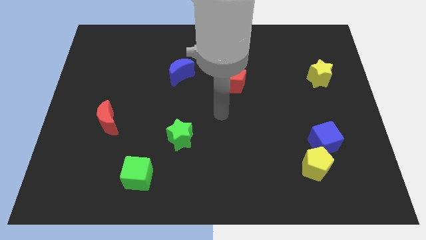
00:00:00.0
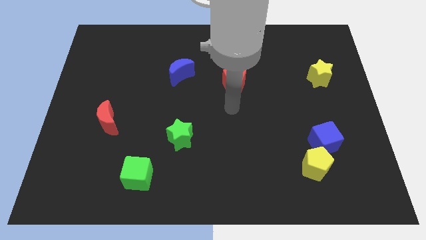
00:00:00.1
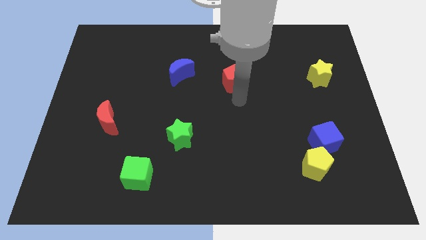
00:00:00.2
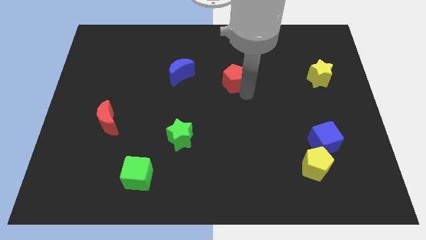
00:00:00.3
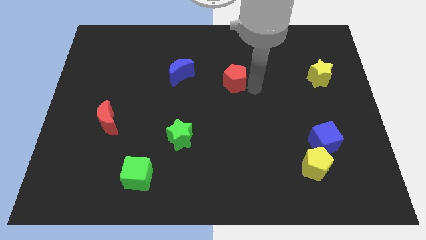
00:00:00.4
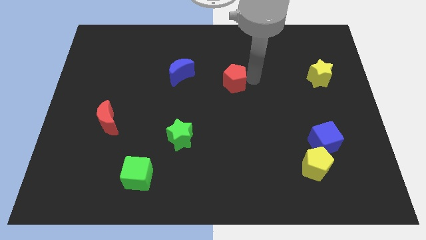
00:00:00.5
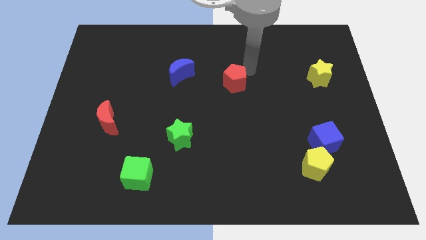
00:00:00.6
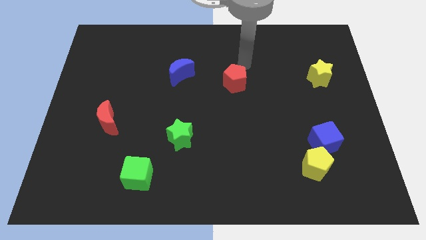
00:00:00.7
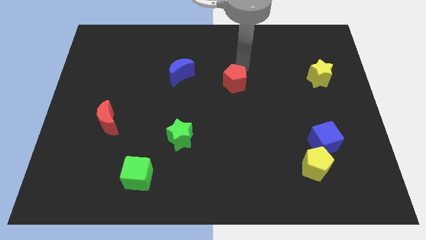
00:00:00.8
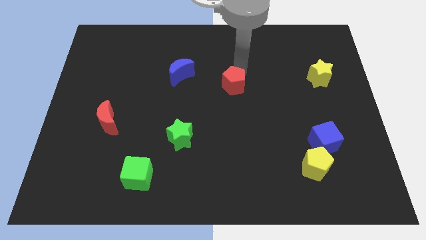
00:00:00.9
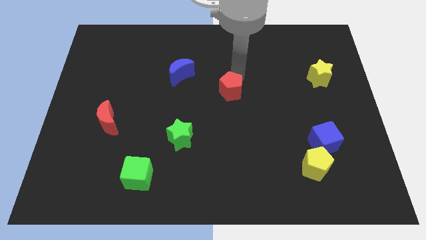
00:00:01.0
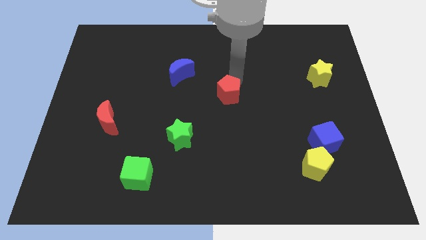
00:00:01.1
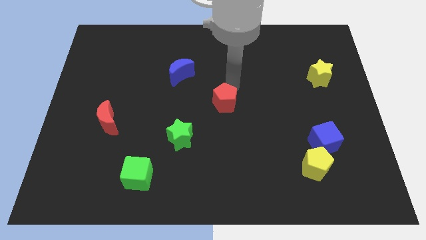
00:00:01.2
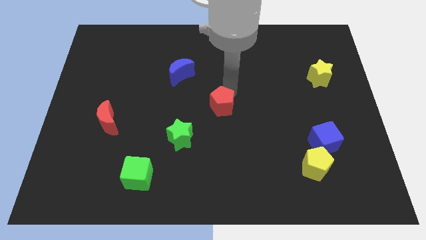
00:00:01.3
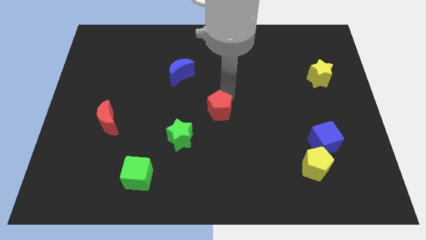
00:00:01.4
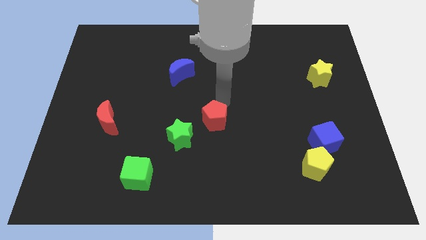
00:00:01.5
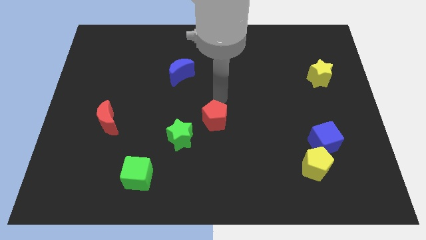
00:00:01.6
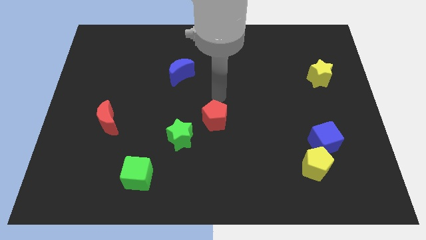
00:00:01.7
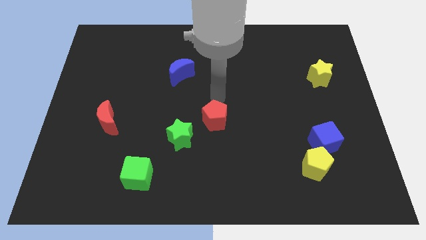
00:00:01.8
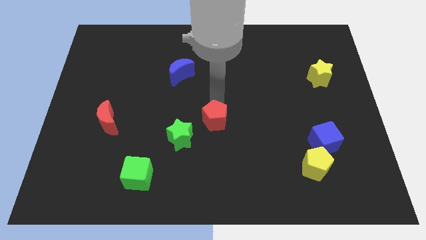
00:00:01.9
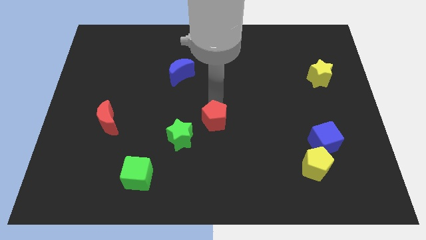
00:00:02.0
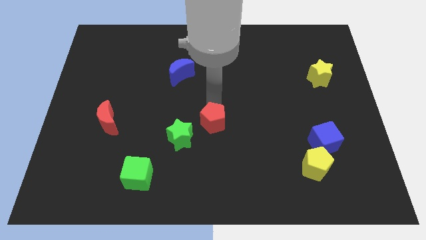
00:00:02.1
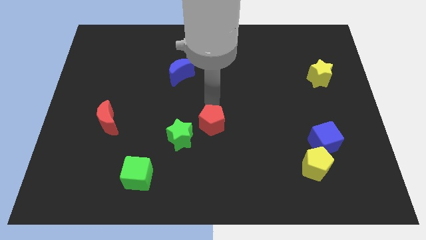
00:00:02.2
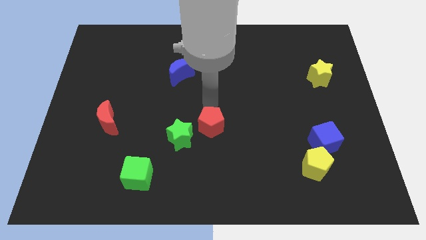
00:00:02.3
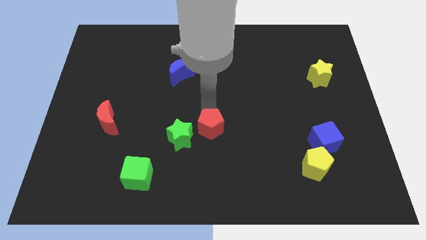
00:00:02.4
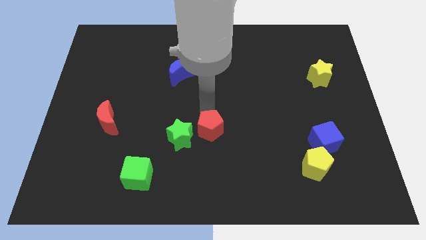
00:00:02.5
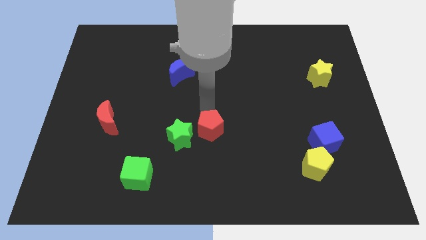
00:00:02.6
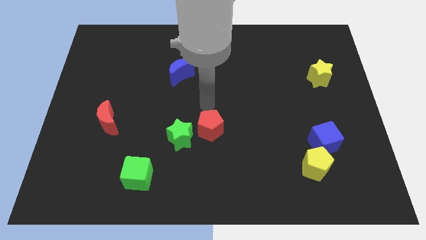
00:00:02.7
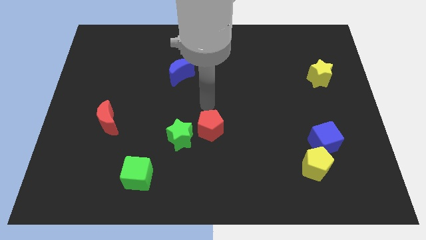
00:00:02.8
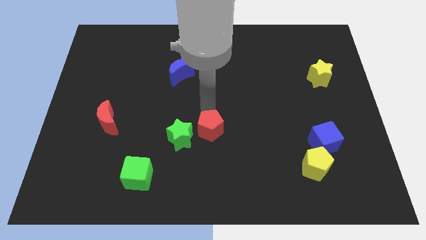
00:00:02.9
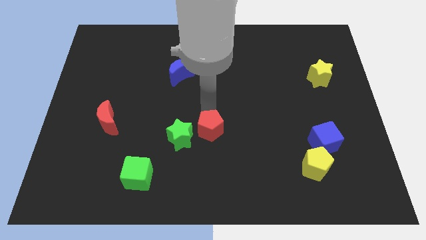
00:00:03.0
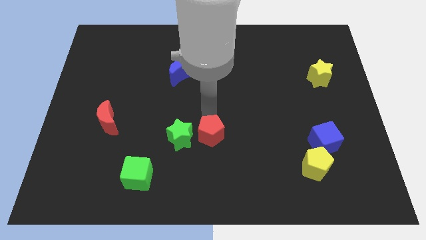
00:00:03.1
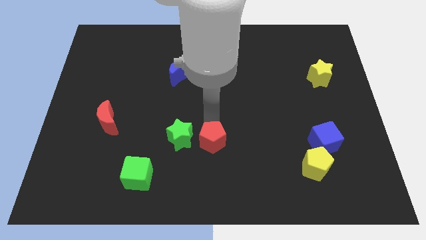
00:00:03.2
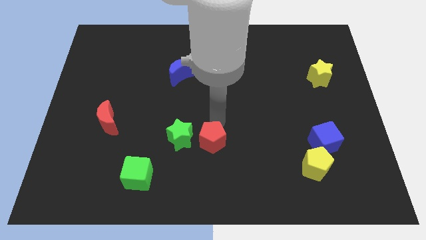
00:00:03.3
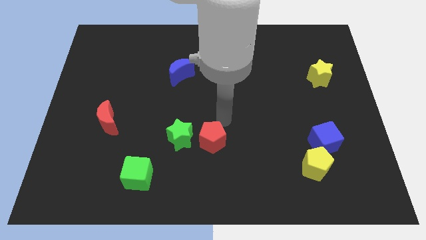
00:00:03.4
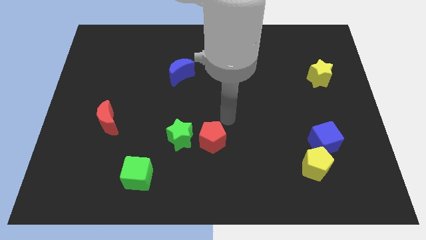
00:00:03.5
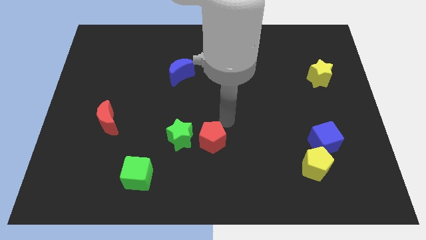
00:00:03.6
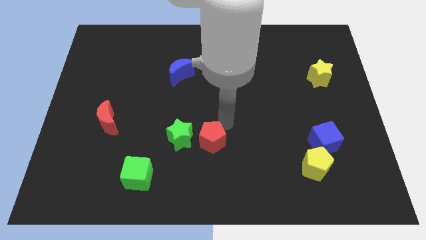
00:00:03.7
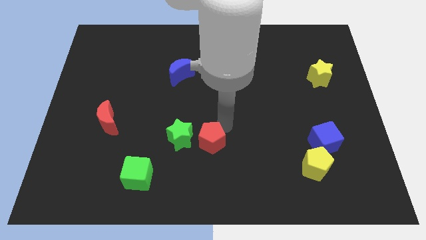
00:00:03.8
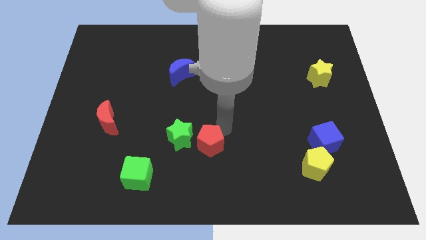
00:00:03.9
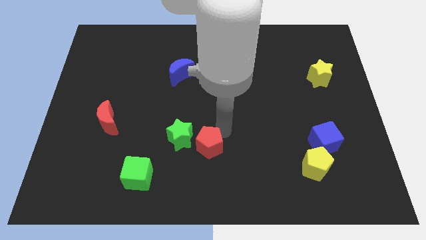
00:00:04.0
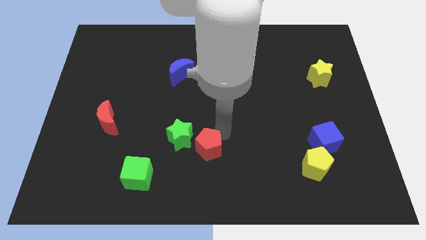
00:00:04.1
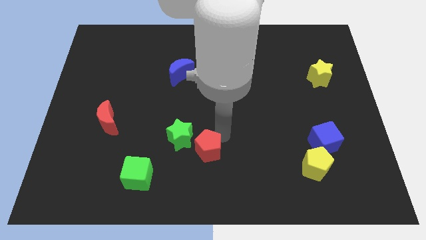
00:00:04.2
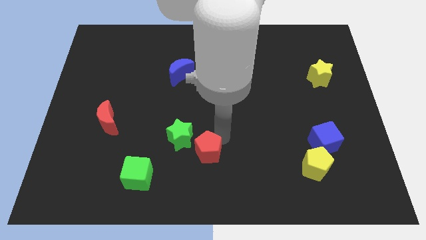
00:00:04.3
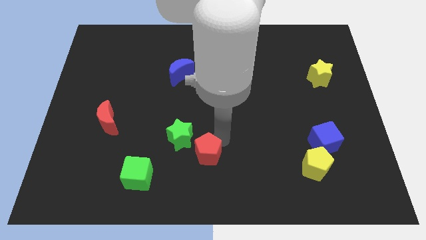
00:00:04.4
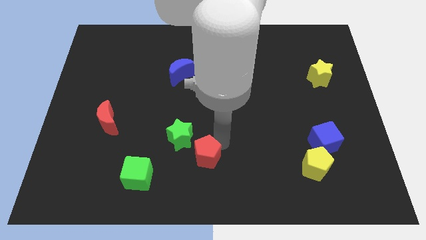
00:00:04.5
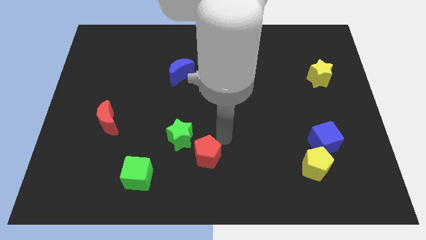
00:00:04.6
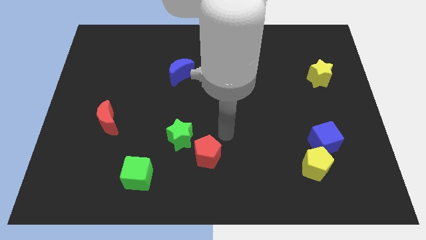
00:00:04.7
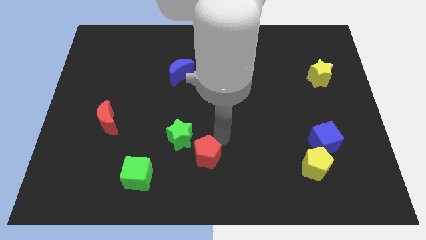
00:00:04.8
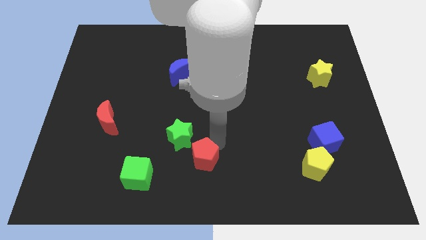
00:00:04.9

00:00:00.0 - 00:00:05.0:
put the red pentagon to the right side of the green cube

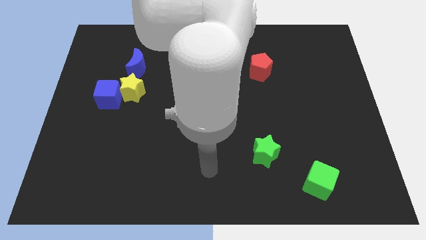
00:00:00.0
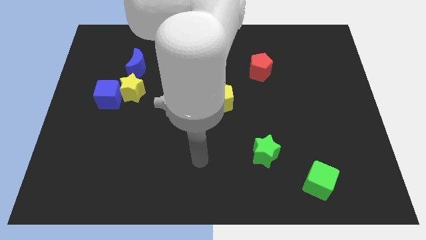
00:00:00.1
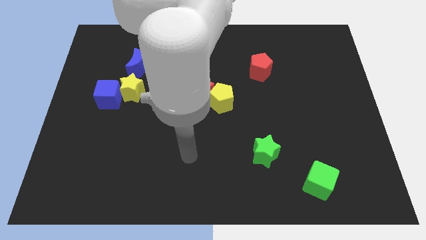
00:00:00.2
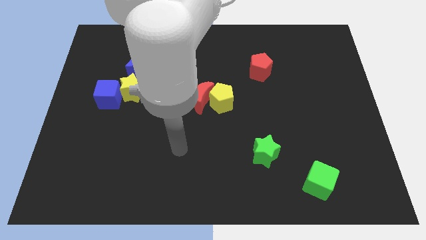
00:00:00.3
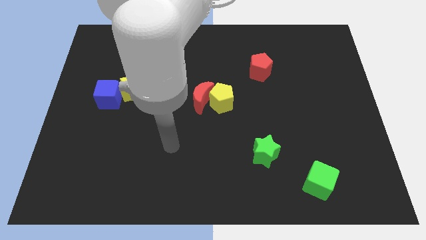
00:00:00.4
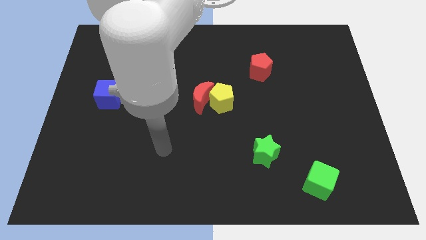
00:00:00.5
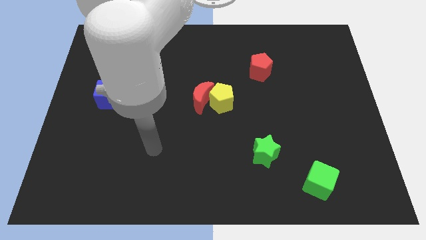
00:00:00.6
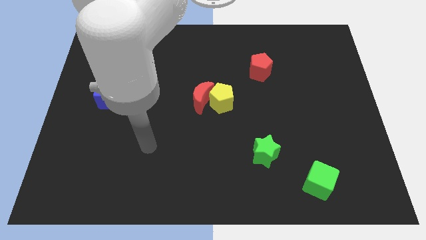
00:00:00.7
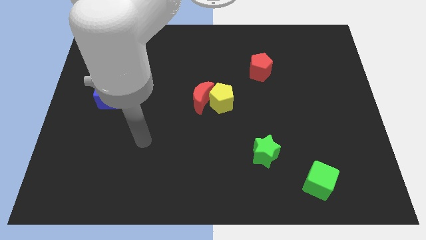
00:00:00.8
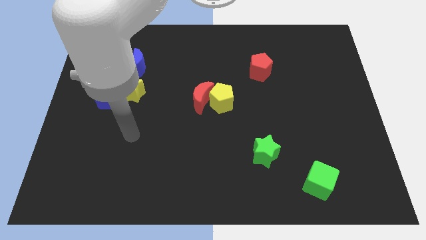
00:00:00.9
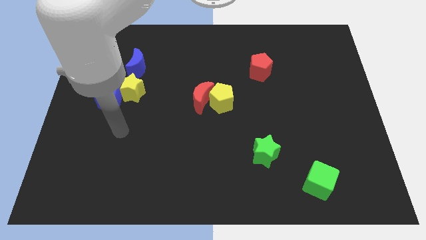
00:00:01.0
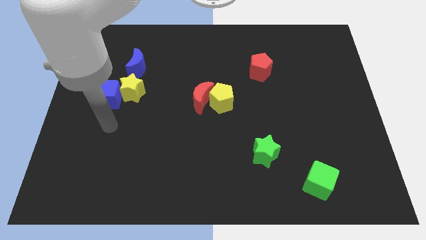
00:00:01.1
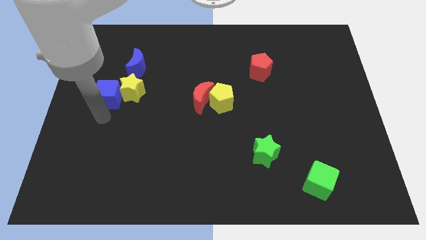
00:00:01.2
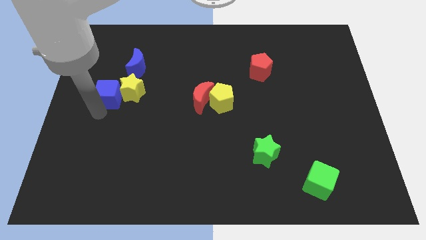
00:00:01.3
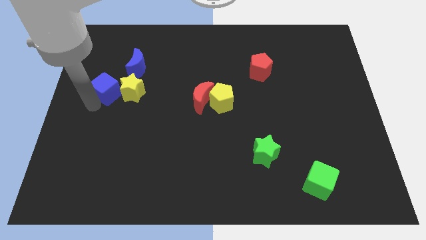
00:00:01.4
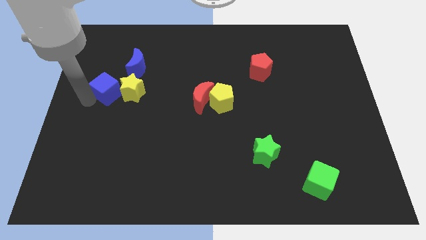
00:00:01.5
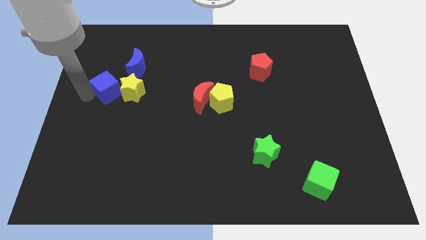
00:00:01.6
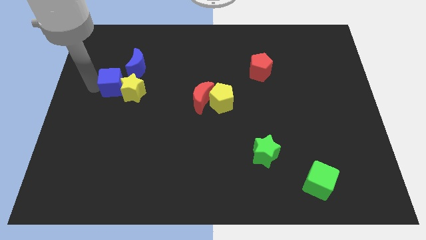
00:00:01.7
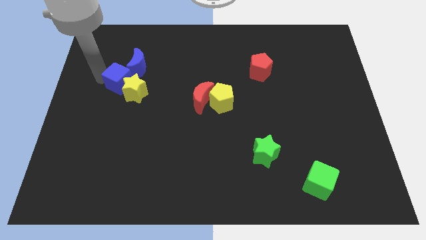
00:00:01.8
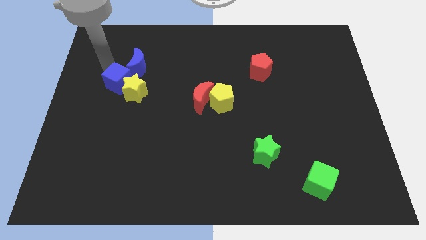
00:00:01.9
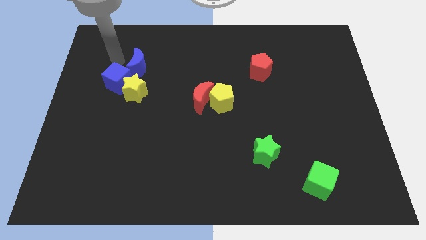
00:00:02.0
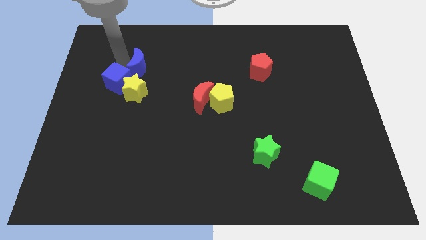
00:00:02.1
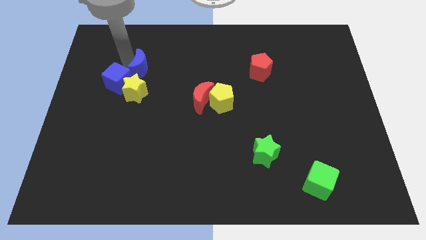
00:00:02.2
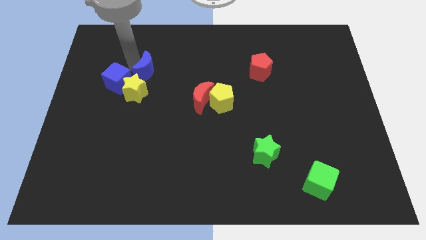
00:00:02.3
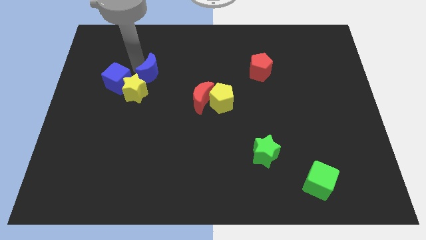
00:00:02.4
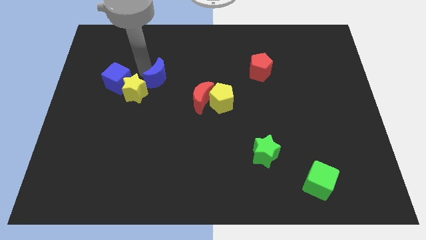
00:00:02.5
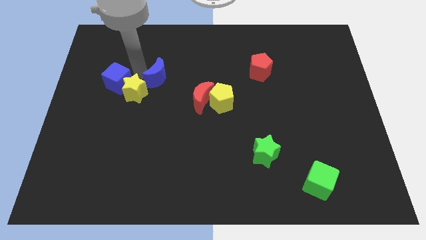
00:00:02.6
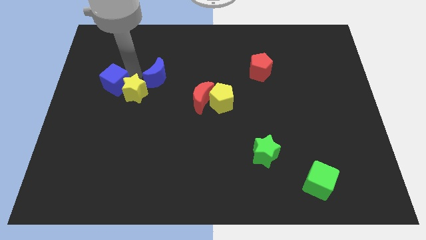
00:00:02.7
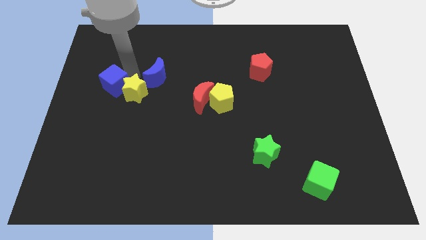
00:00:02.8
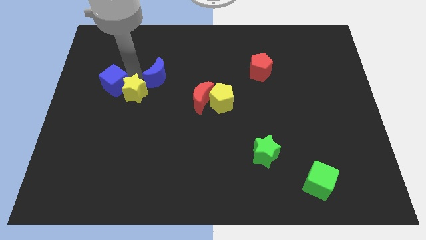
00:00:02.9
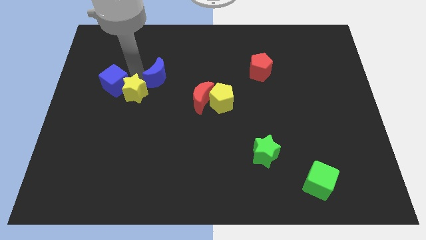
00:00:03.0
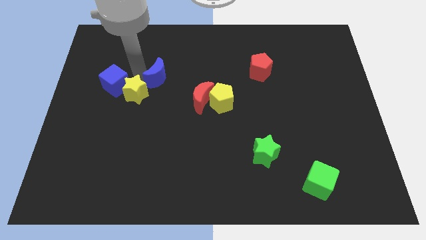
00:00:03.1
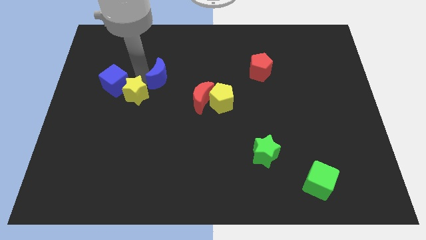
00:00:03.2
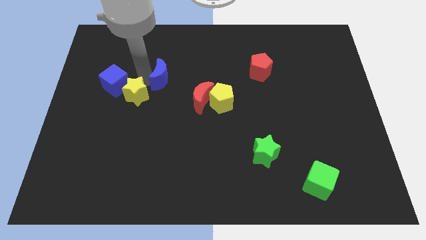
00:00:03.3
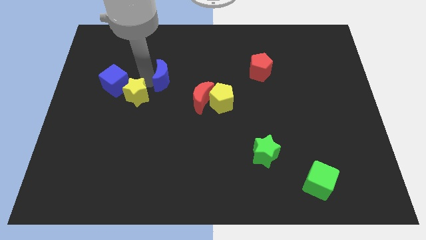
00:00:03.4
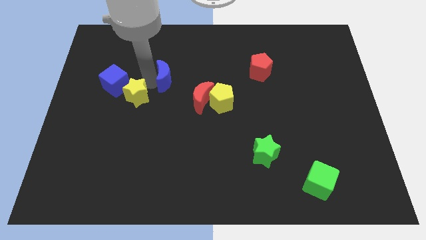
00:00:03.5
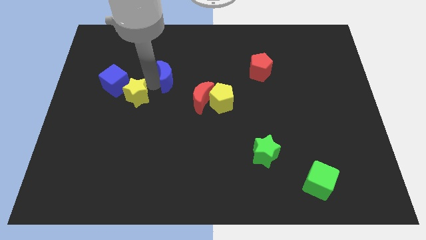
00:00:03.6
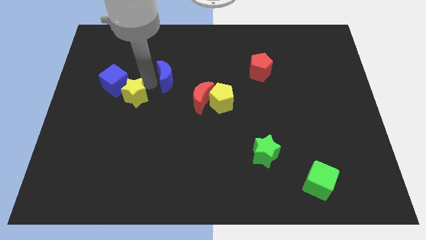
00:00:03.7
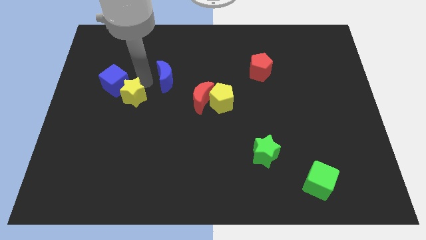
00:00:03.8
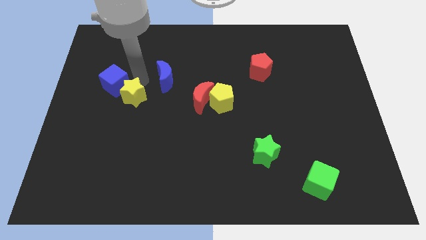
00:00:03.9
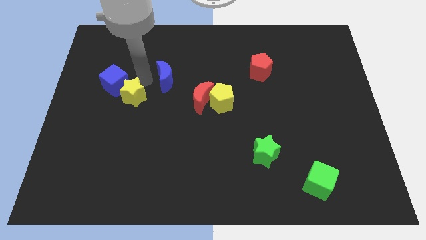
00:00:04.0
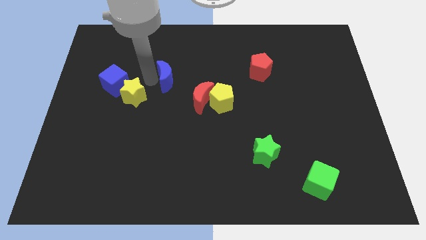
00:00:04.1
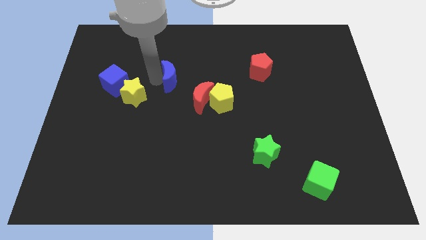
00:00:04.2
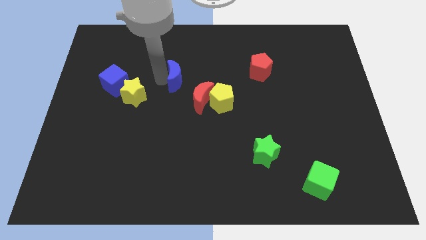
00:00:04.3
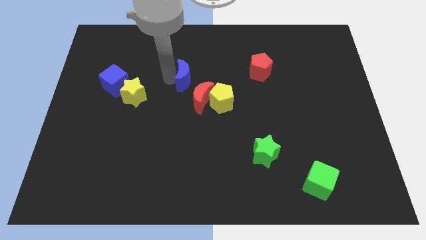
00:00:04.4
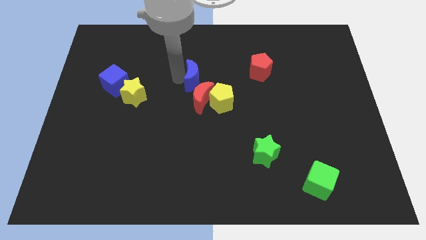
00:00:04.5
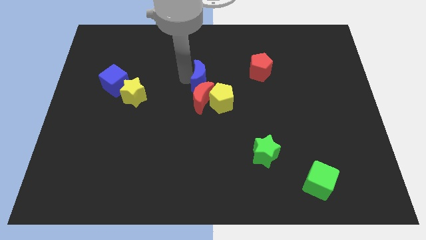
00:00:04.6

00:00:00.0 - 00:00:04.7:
put the blue moon to the top right side of the red moon
